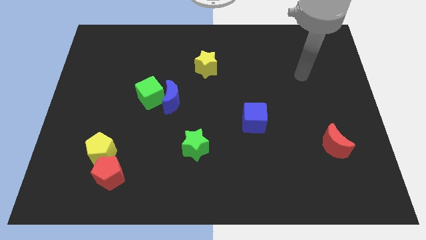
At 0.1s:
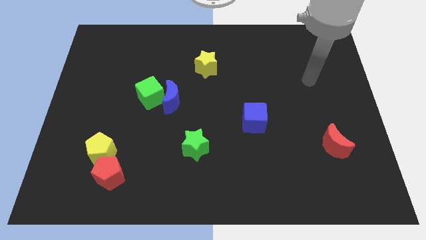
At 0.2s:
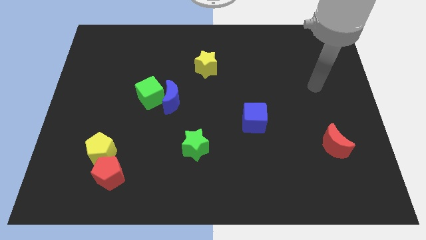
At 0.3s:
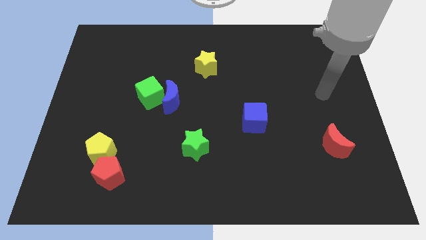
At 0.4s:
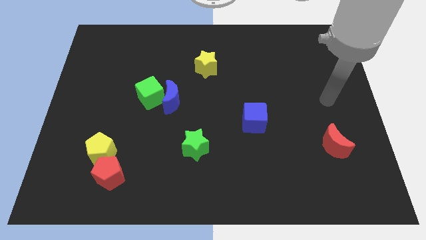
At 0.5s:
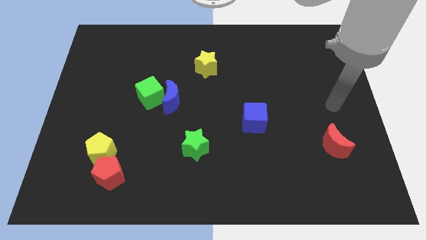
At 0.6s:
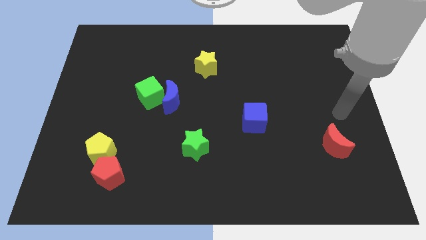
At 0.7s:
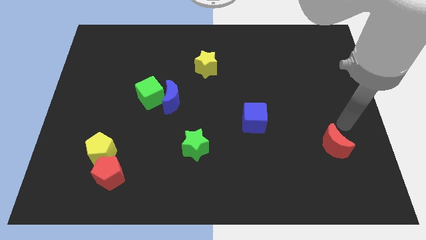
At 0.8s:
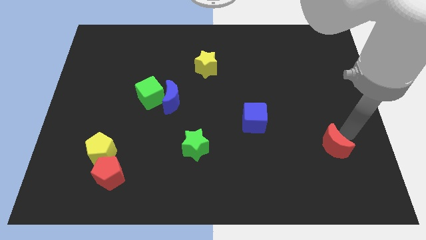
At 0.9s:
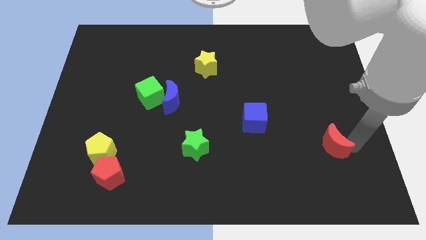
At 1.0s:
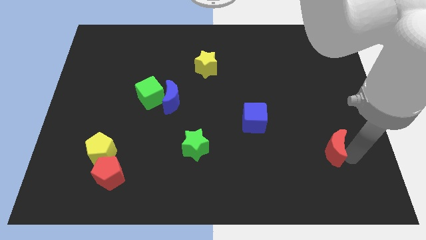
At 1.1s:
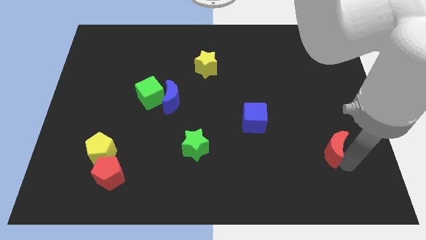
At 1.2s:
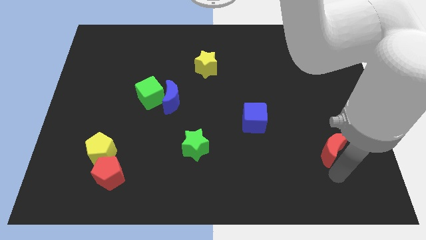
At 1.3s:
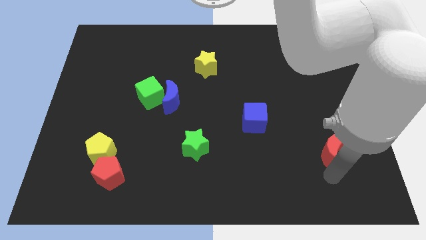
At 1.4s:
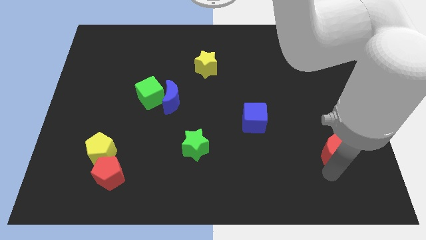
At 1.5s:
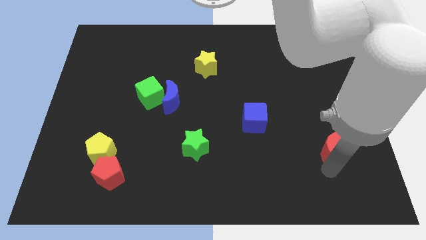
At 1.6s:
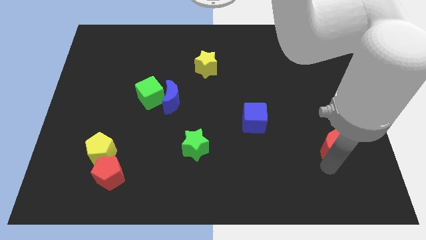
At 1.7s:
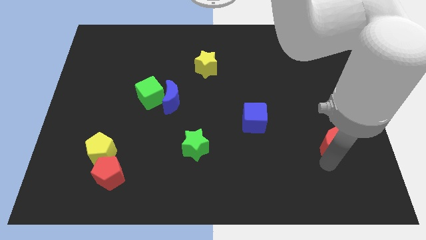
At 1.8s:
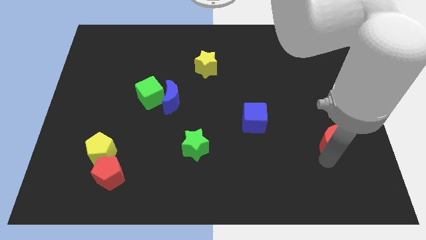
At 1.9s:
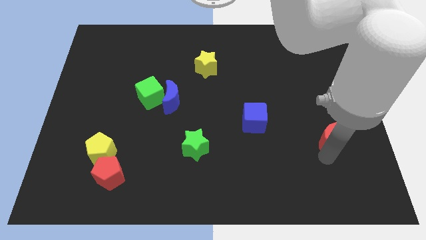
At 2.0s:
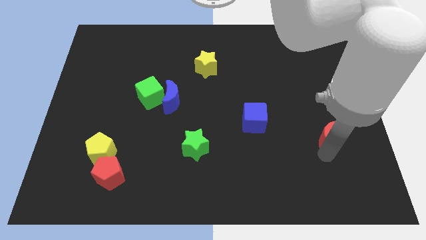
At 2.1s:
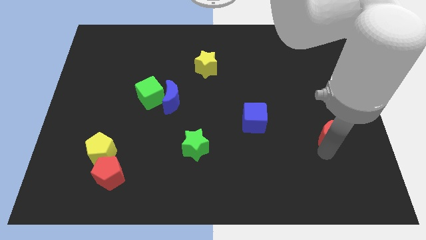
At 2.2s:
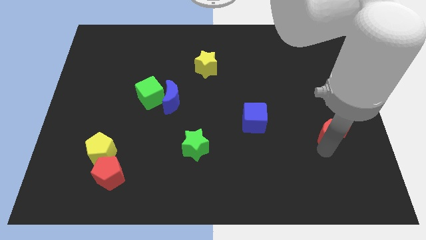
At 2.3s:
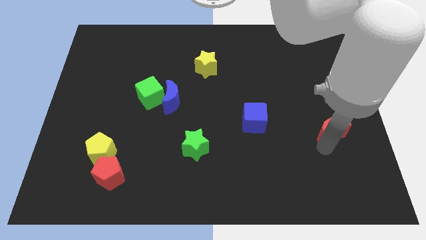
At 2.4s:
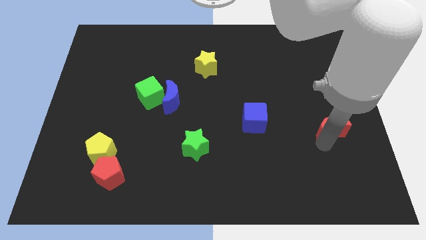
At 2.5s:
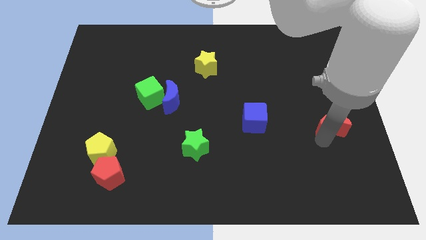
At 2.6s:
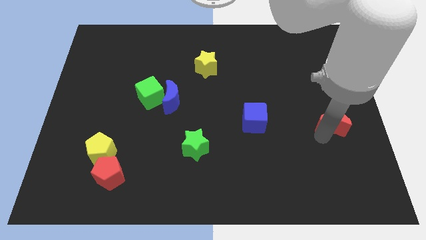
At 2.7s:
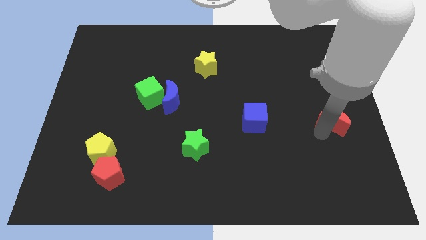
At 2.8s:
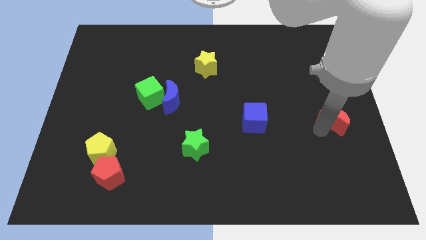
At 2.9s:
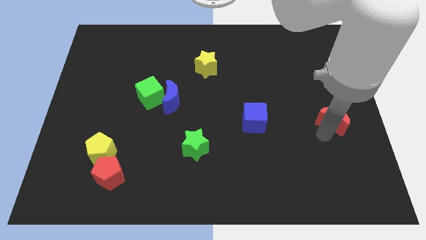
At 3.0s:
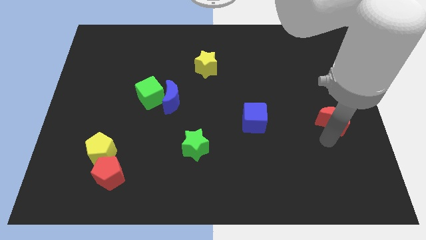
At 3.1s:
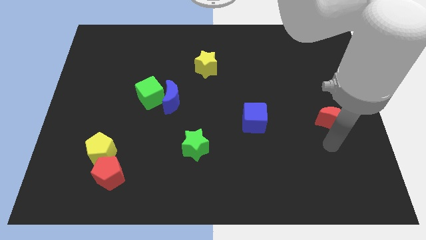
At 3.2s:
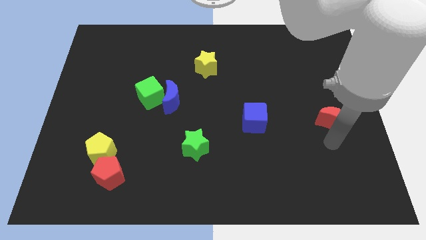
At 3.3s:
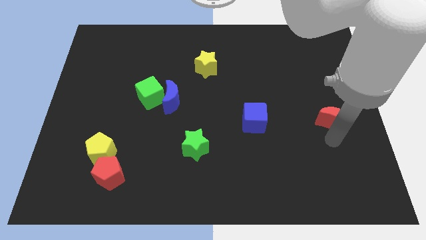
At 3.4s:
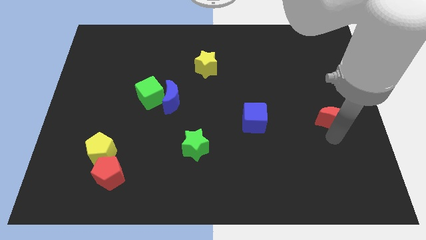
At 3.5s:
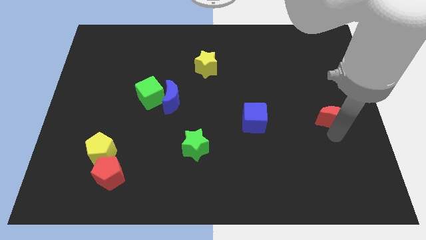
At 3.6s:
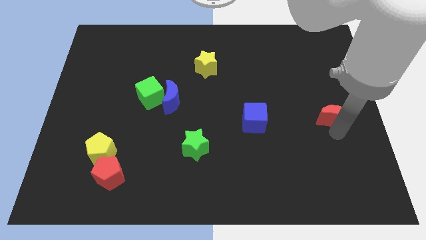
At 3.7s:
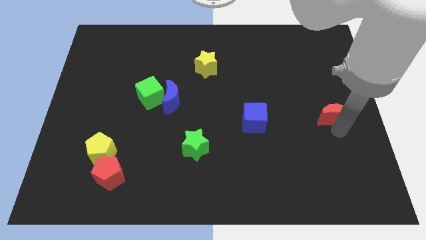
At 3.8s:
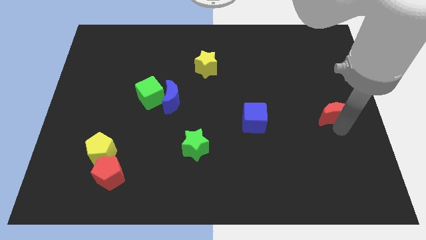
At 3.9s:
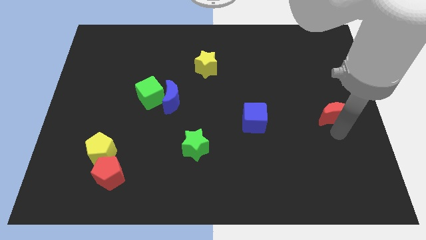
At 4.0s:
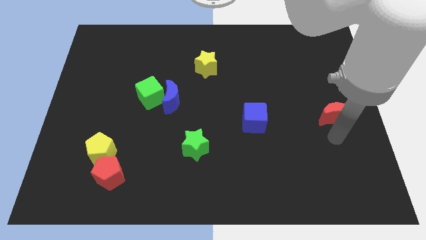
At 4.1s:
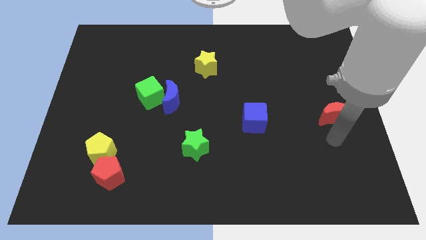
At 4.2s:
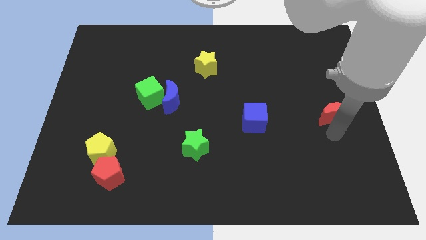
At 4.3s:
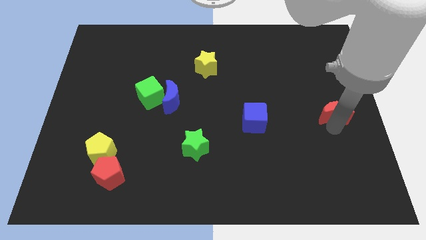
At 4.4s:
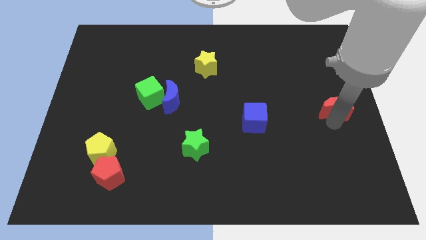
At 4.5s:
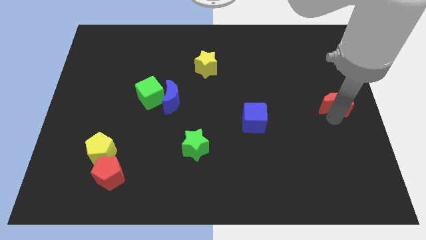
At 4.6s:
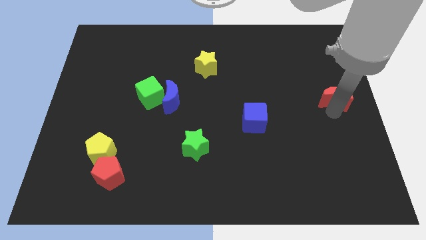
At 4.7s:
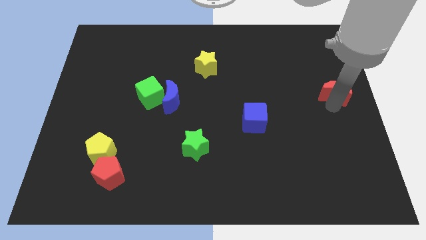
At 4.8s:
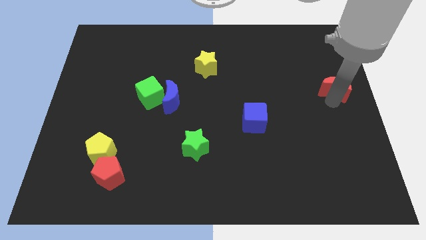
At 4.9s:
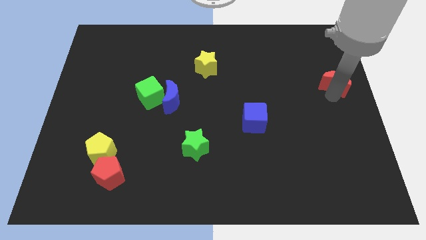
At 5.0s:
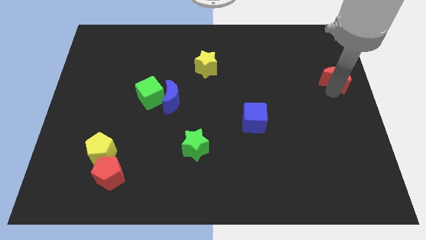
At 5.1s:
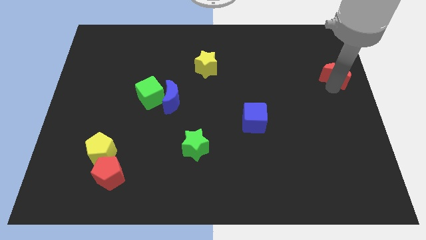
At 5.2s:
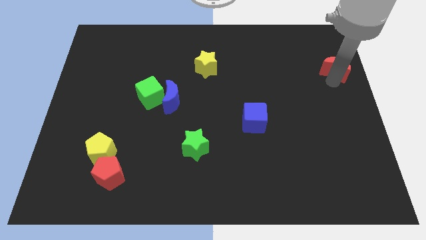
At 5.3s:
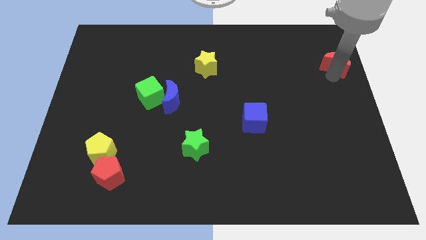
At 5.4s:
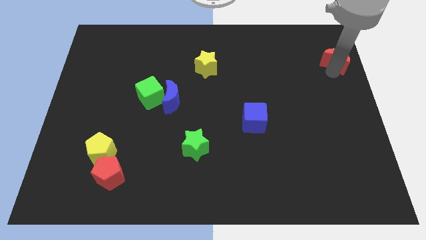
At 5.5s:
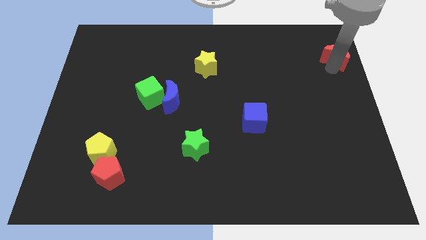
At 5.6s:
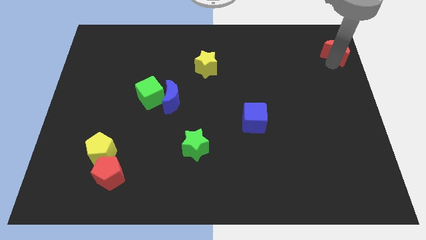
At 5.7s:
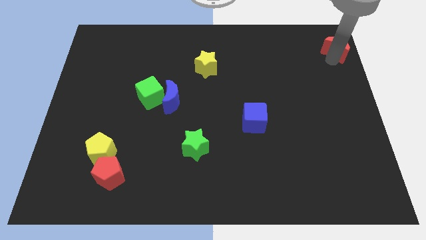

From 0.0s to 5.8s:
move the red moon to the top right corner

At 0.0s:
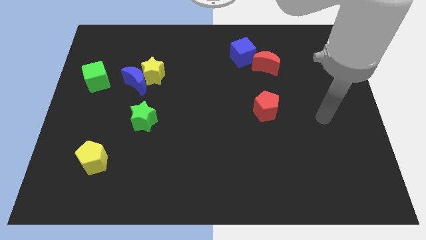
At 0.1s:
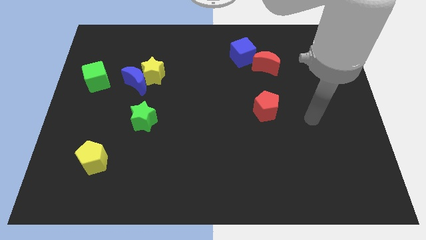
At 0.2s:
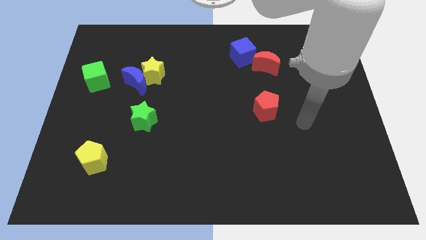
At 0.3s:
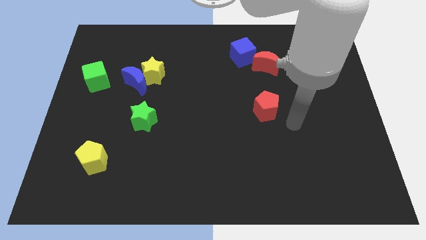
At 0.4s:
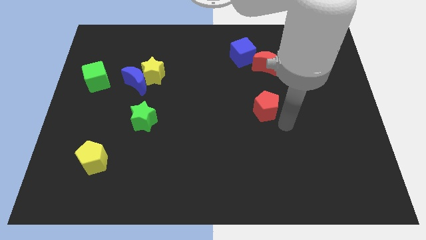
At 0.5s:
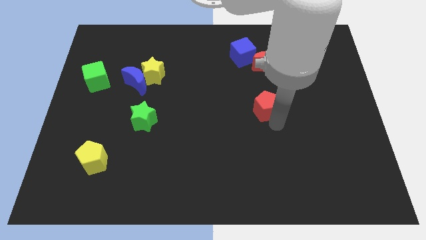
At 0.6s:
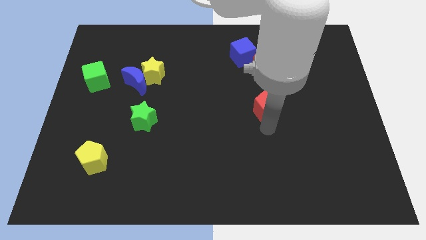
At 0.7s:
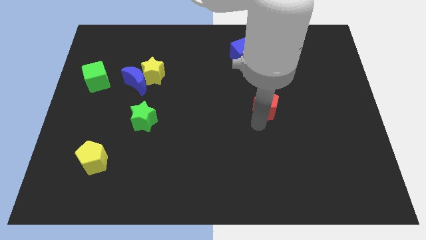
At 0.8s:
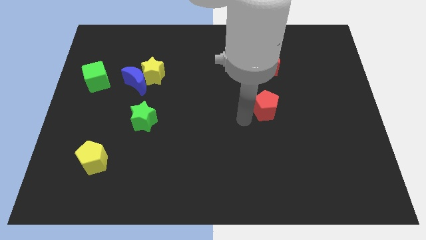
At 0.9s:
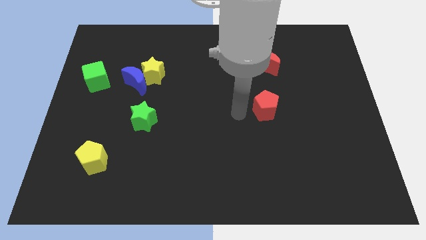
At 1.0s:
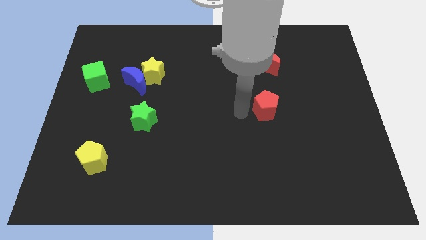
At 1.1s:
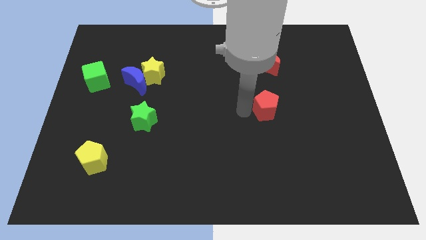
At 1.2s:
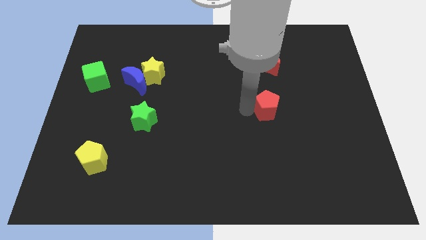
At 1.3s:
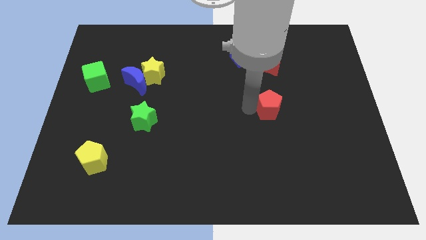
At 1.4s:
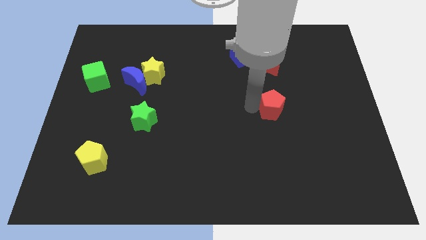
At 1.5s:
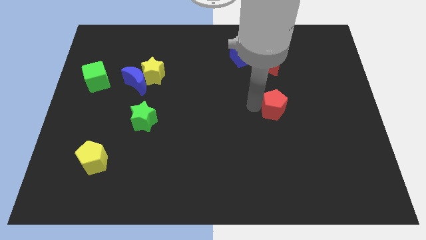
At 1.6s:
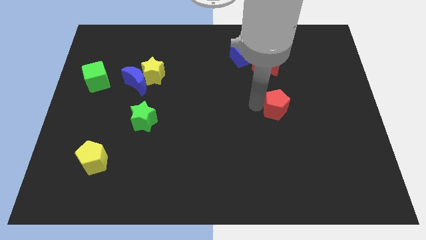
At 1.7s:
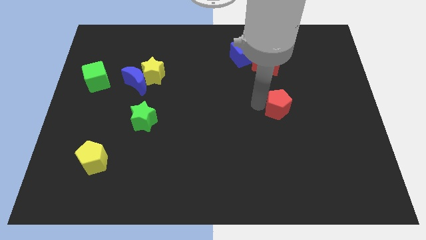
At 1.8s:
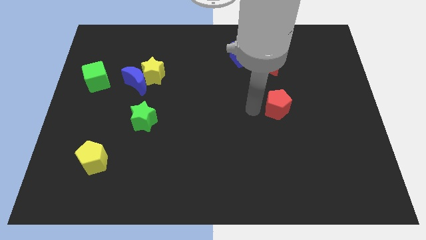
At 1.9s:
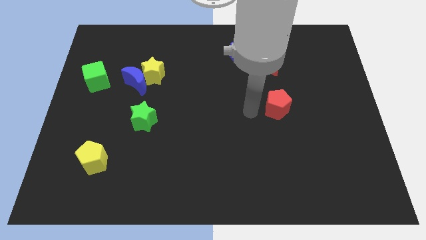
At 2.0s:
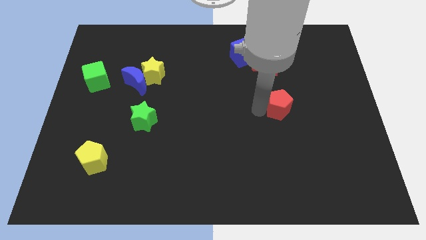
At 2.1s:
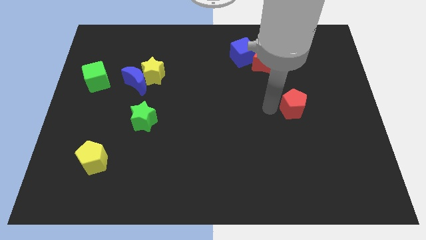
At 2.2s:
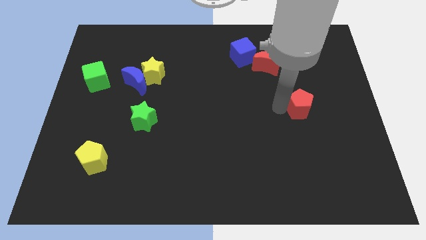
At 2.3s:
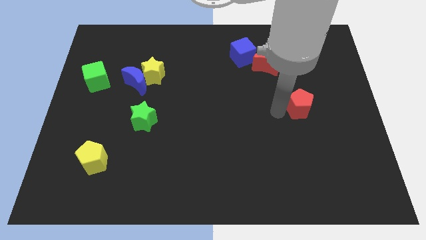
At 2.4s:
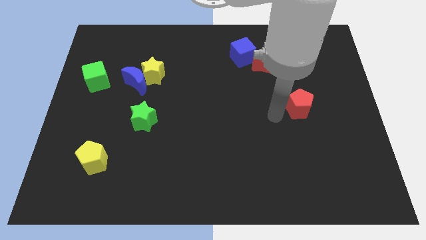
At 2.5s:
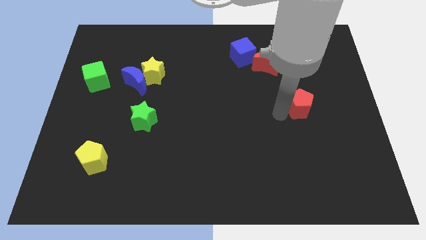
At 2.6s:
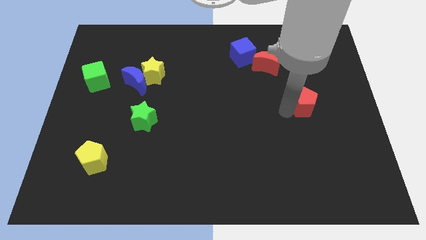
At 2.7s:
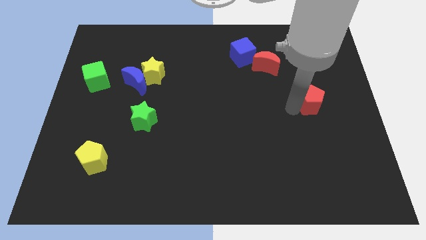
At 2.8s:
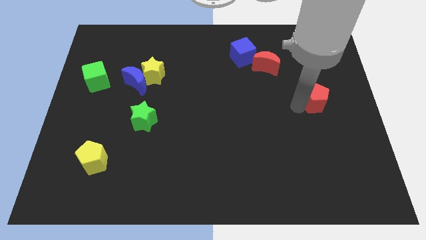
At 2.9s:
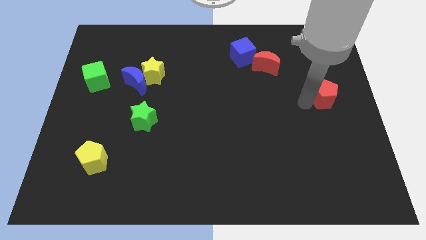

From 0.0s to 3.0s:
slide the red pentagon to the right side of the board
